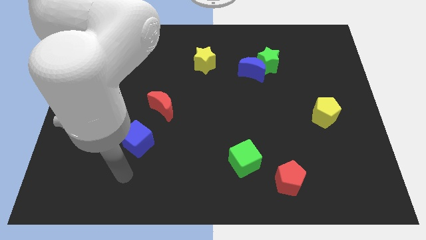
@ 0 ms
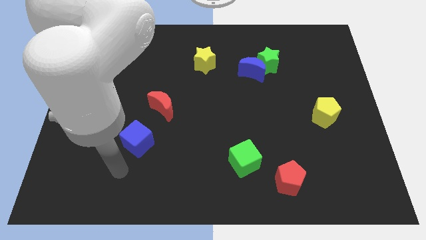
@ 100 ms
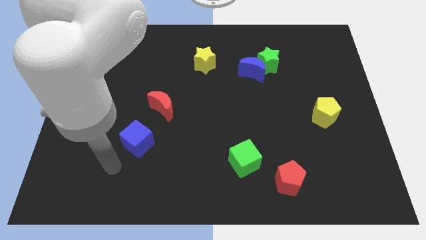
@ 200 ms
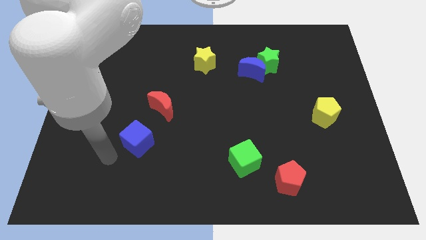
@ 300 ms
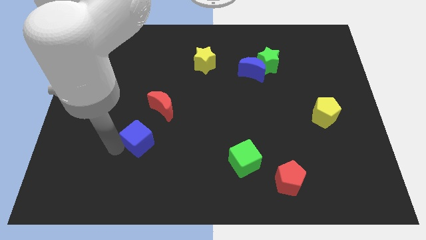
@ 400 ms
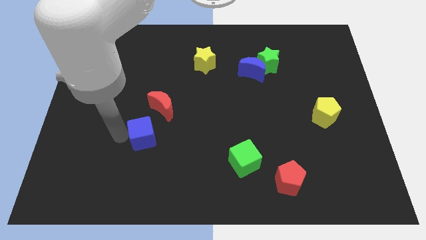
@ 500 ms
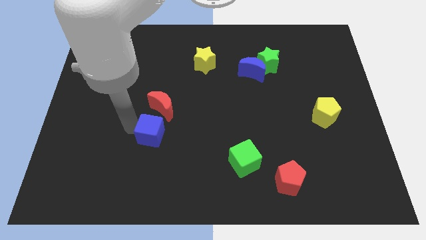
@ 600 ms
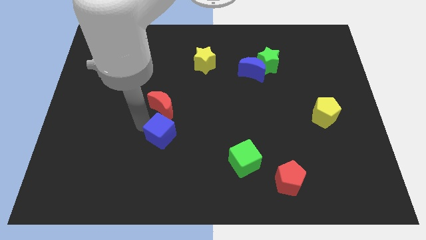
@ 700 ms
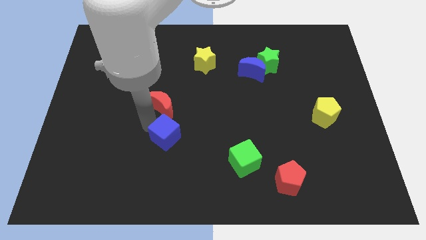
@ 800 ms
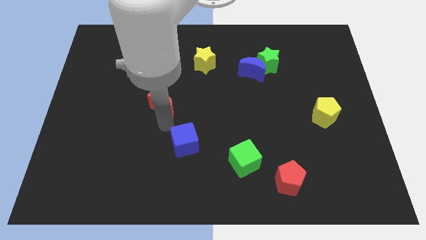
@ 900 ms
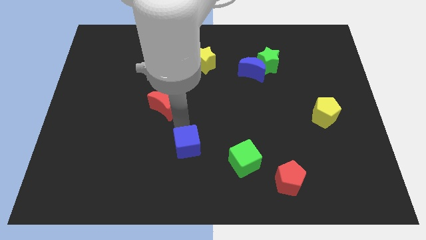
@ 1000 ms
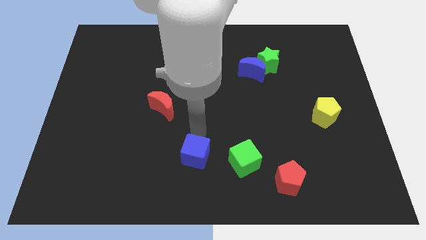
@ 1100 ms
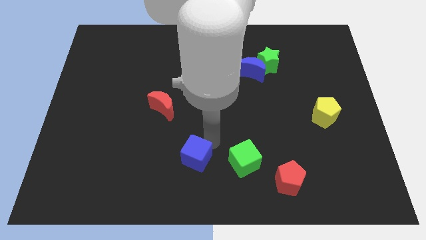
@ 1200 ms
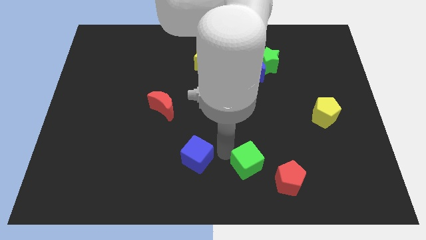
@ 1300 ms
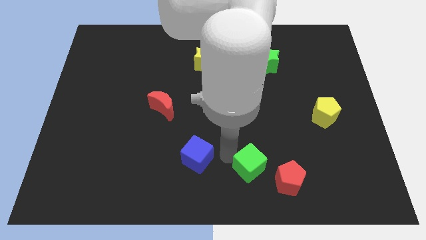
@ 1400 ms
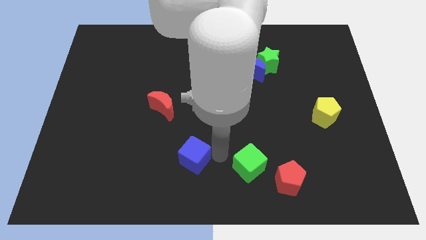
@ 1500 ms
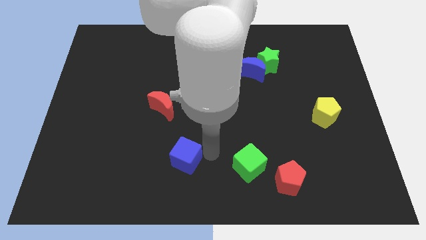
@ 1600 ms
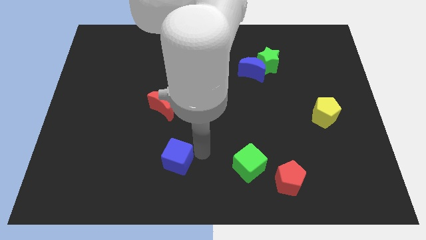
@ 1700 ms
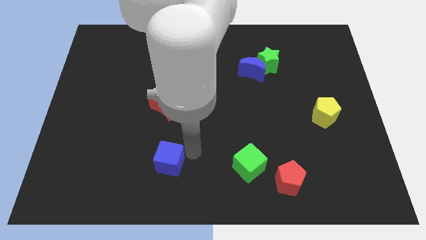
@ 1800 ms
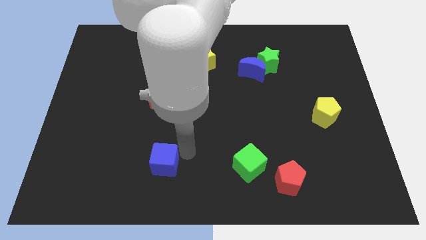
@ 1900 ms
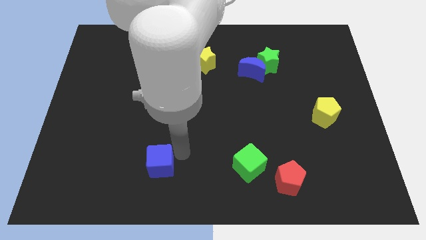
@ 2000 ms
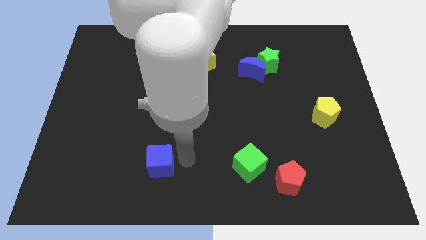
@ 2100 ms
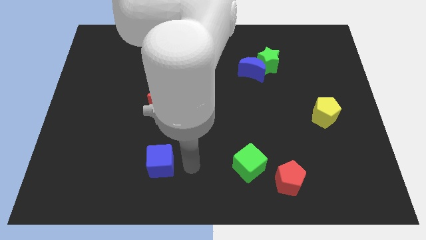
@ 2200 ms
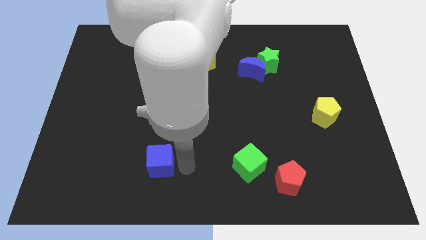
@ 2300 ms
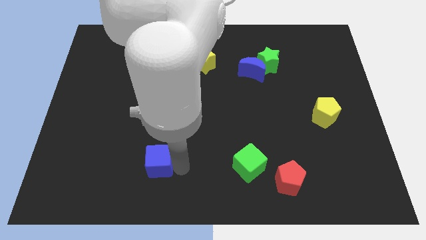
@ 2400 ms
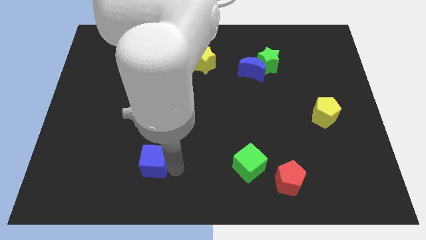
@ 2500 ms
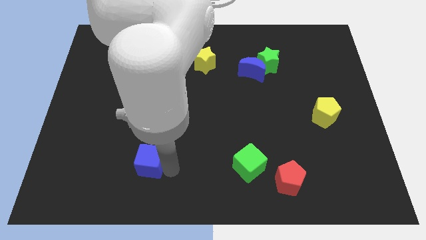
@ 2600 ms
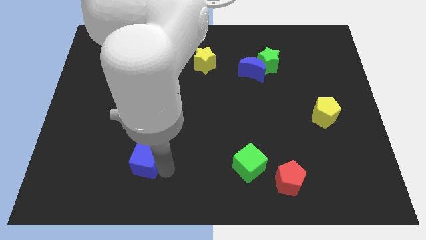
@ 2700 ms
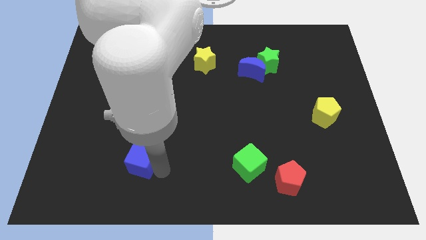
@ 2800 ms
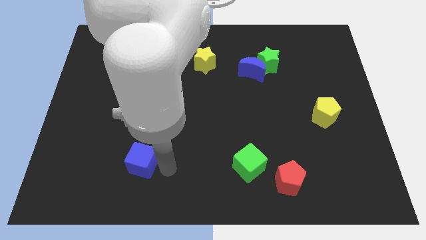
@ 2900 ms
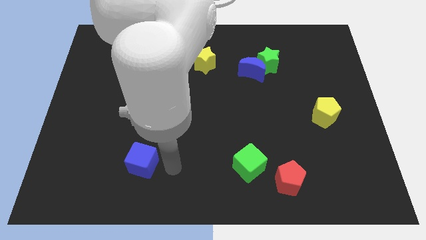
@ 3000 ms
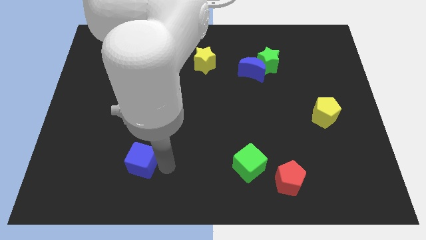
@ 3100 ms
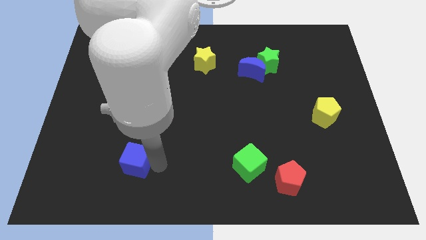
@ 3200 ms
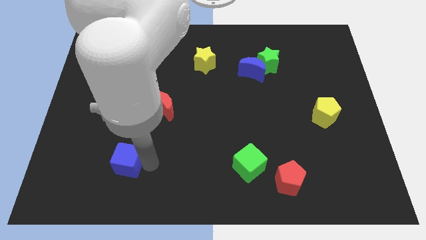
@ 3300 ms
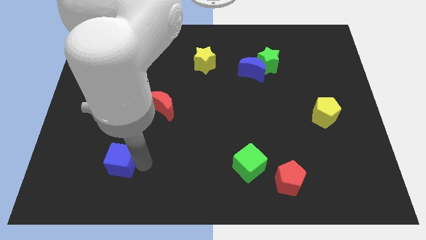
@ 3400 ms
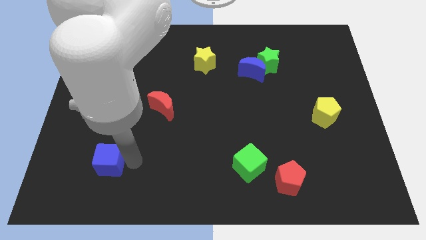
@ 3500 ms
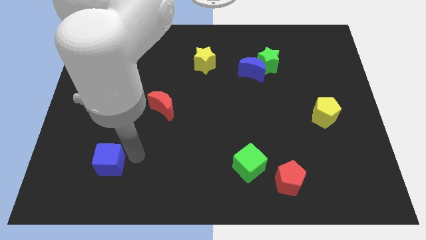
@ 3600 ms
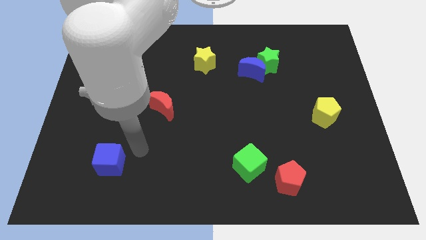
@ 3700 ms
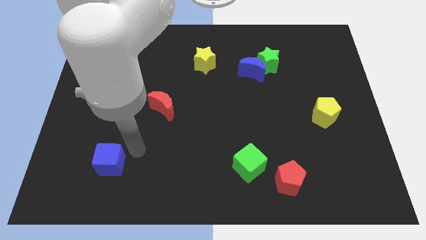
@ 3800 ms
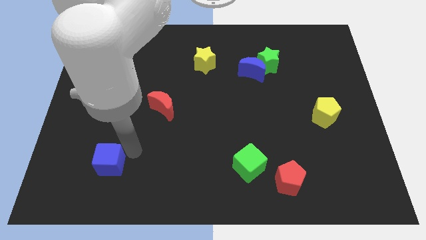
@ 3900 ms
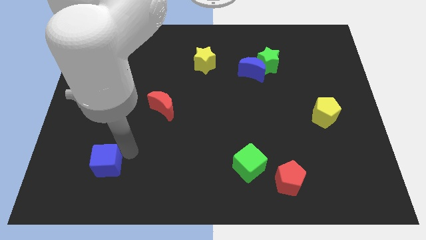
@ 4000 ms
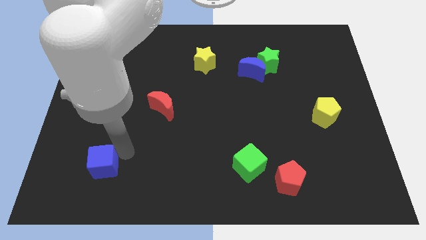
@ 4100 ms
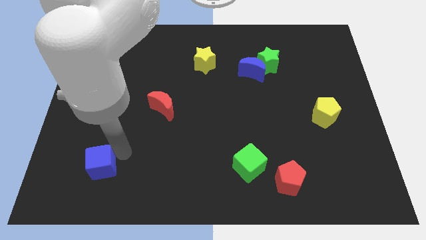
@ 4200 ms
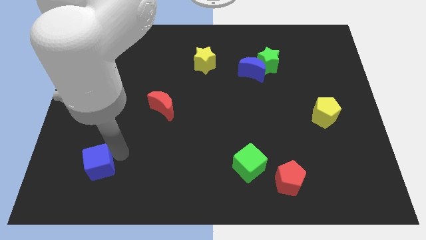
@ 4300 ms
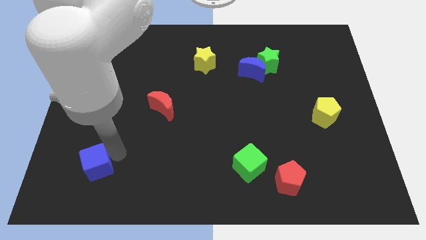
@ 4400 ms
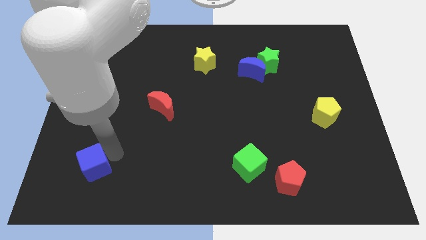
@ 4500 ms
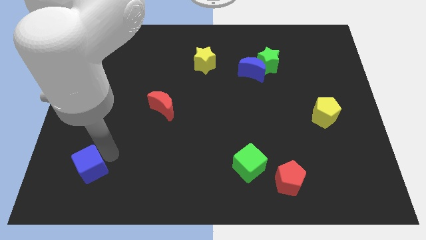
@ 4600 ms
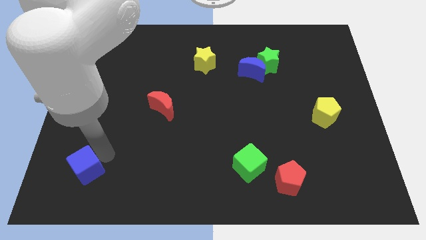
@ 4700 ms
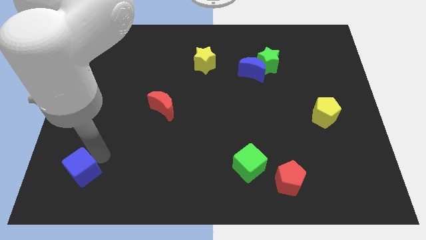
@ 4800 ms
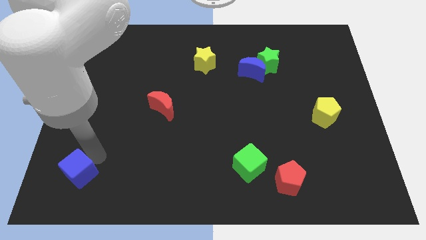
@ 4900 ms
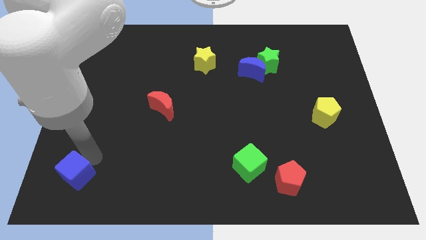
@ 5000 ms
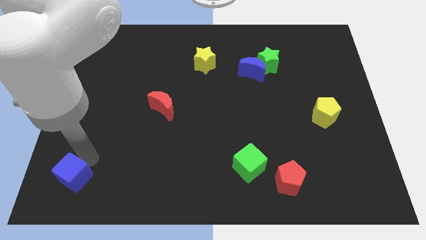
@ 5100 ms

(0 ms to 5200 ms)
slide the blue cube to the bottom left of the board

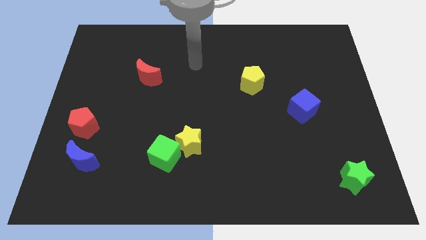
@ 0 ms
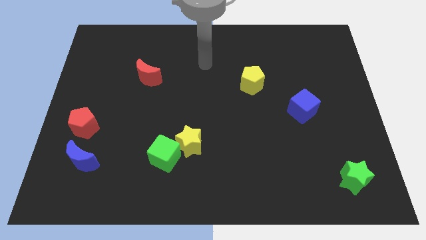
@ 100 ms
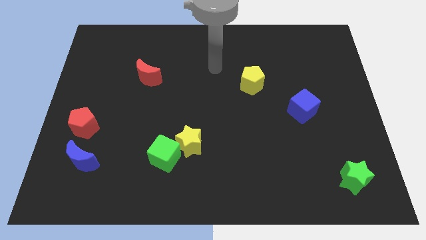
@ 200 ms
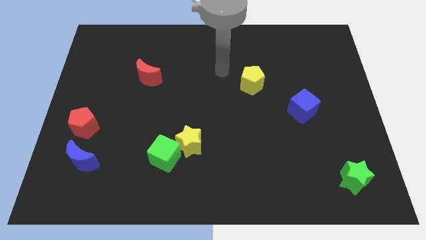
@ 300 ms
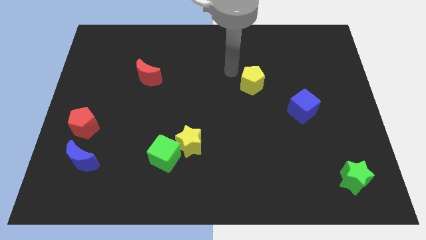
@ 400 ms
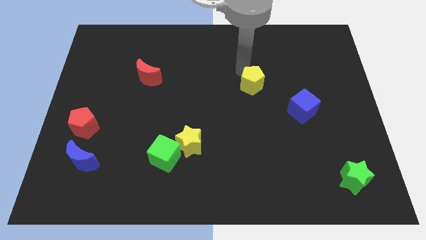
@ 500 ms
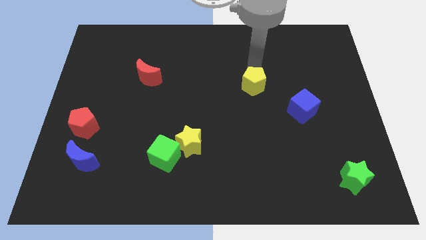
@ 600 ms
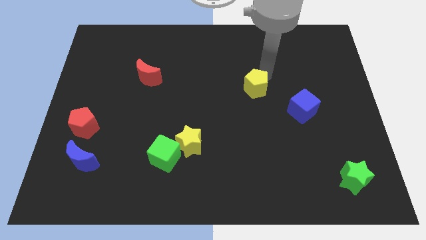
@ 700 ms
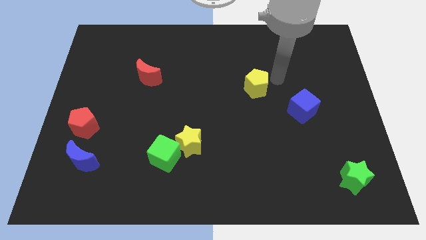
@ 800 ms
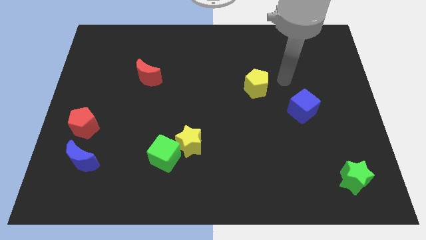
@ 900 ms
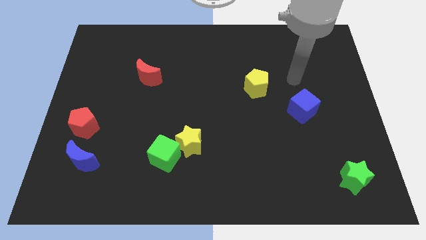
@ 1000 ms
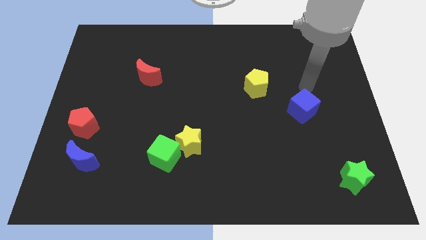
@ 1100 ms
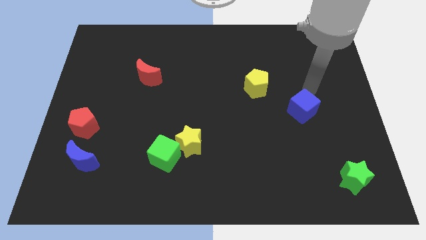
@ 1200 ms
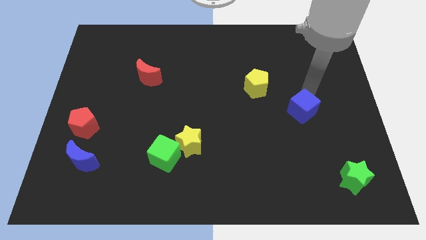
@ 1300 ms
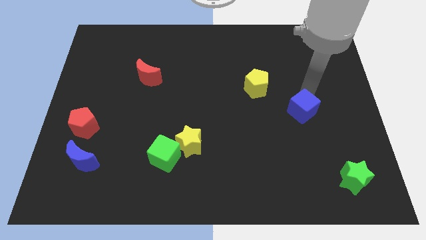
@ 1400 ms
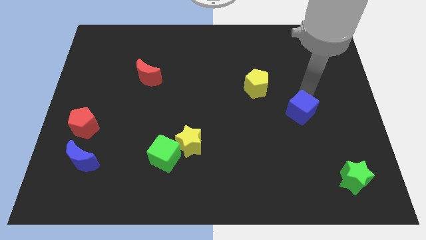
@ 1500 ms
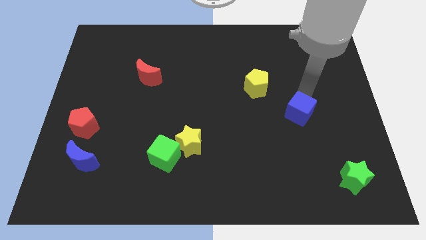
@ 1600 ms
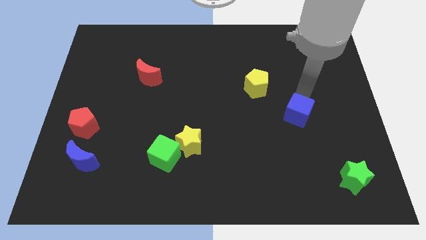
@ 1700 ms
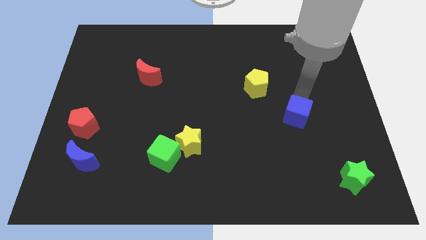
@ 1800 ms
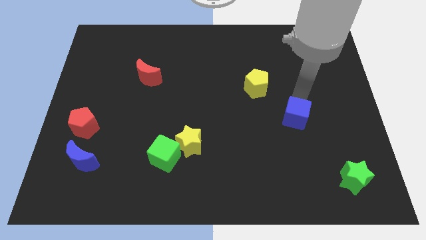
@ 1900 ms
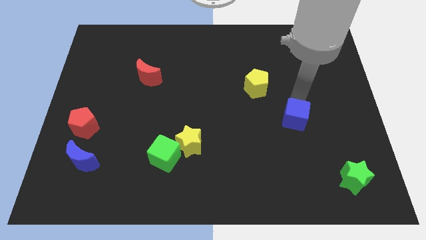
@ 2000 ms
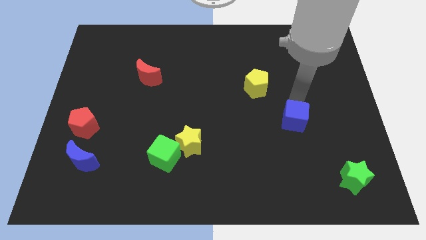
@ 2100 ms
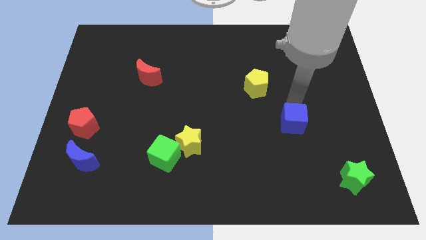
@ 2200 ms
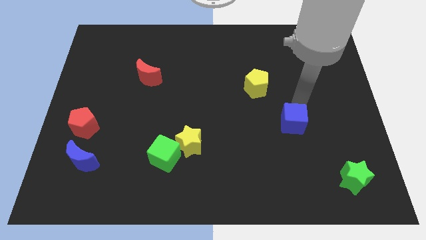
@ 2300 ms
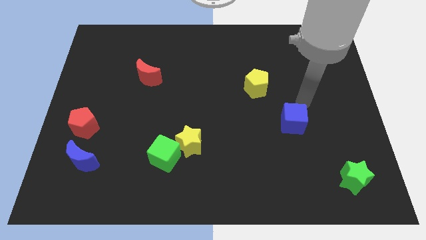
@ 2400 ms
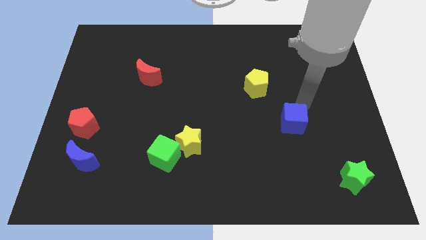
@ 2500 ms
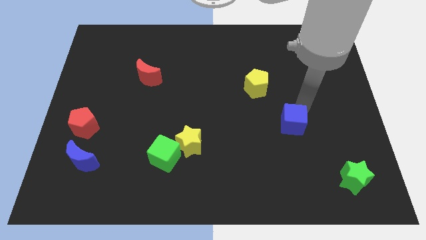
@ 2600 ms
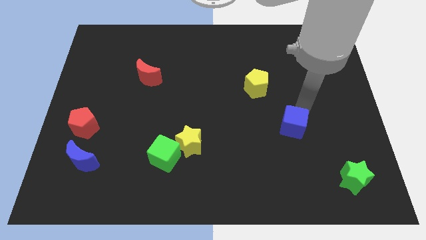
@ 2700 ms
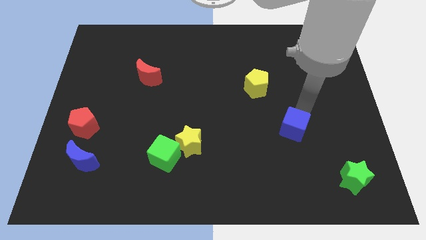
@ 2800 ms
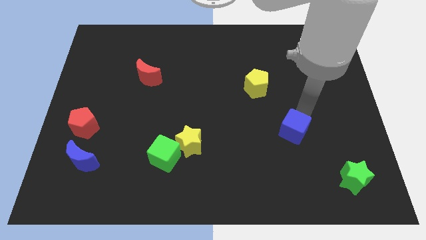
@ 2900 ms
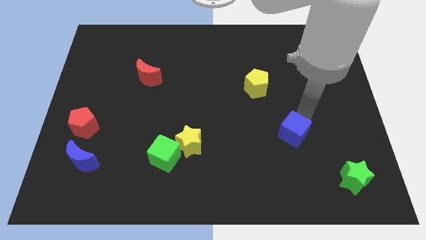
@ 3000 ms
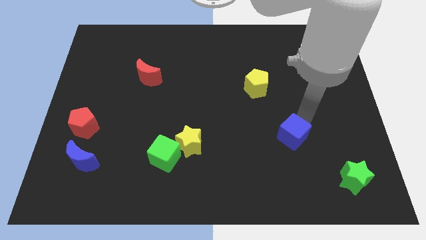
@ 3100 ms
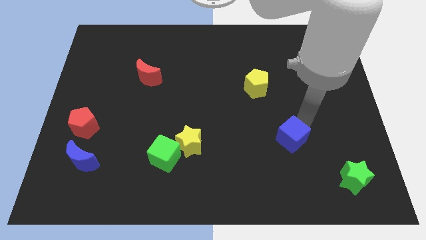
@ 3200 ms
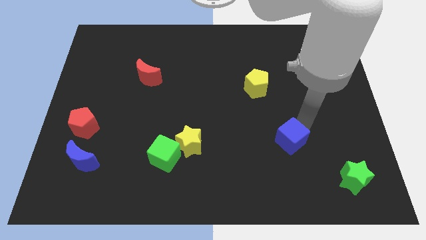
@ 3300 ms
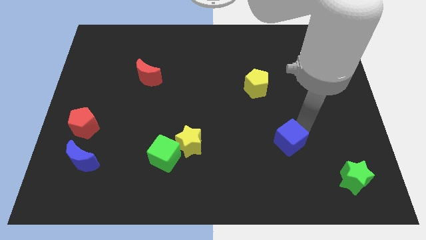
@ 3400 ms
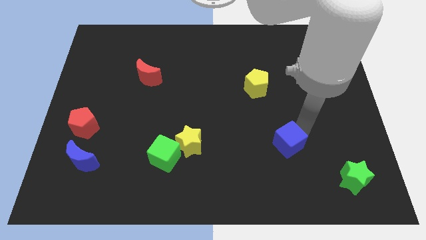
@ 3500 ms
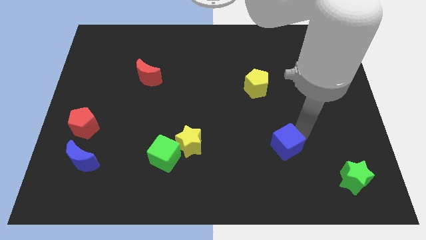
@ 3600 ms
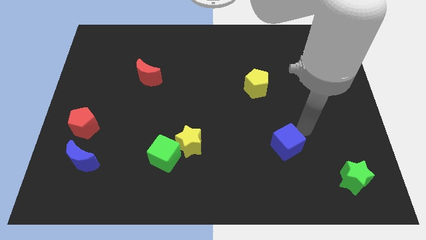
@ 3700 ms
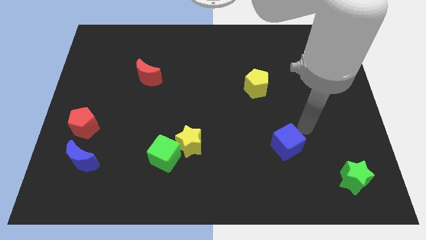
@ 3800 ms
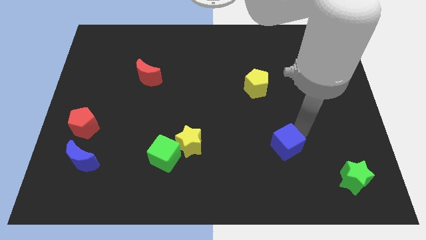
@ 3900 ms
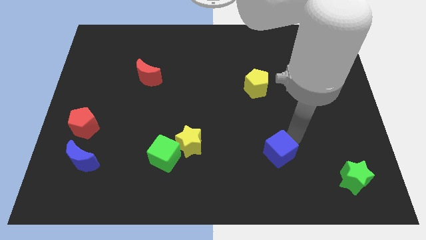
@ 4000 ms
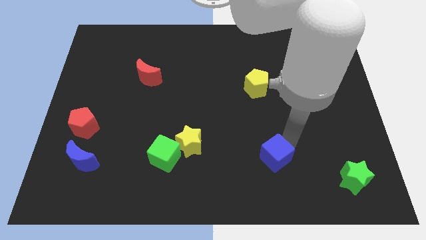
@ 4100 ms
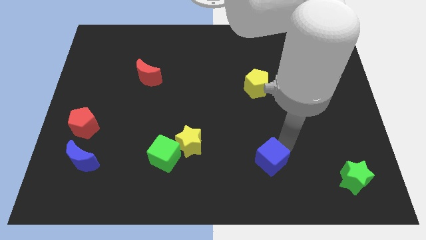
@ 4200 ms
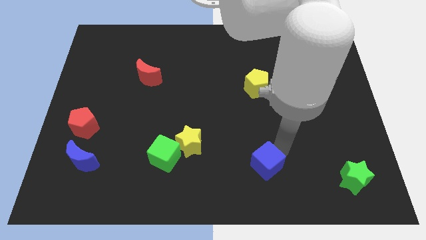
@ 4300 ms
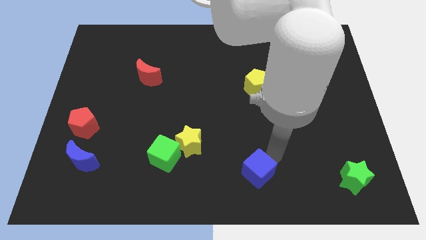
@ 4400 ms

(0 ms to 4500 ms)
put the blue cube to the bottom side
